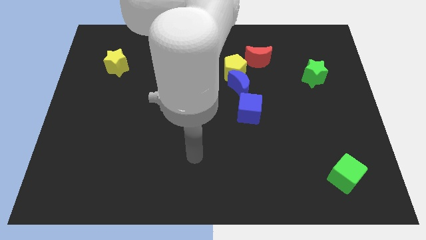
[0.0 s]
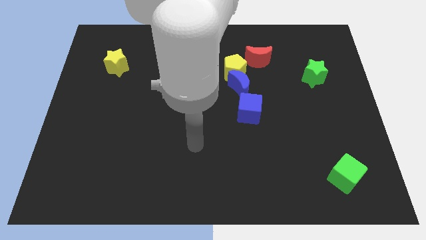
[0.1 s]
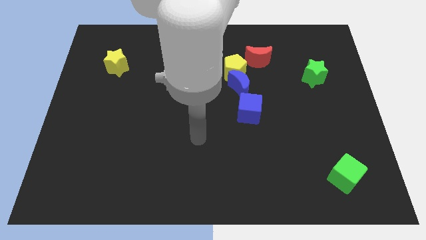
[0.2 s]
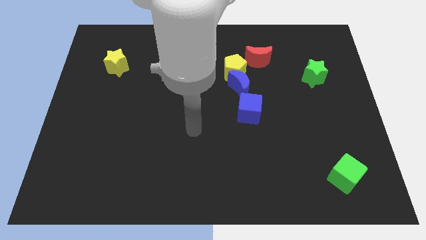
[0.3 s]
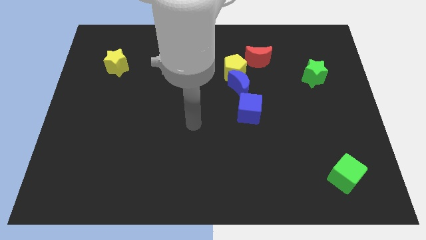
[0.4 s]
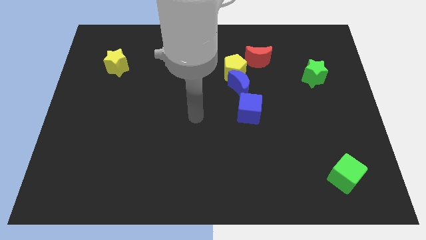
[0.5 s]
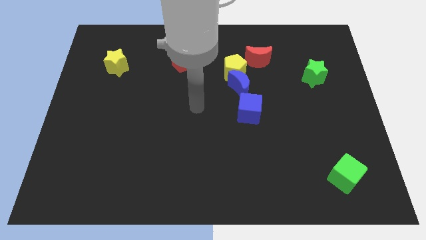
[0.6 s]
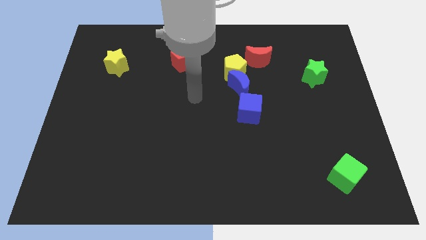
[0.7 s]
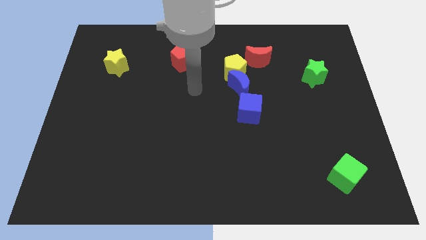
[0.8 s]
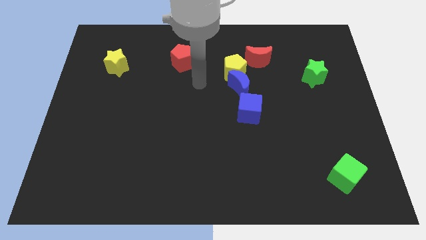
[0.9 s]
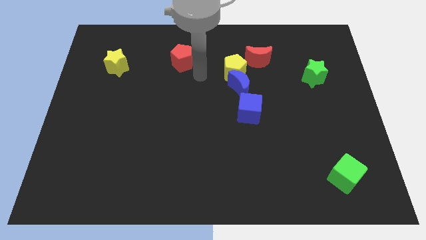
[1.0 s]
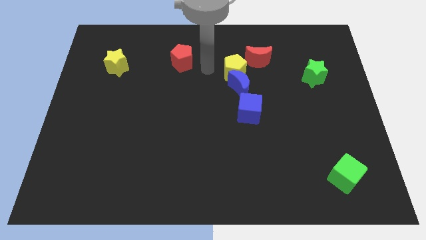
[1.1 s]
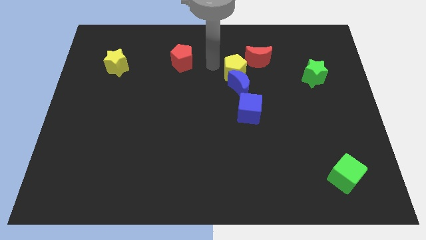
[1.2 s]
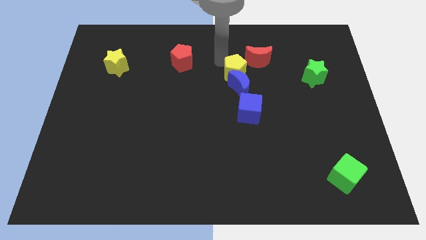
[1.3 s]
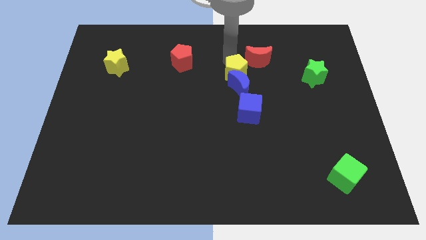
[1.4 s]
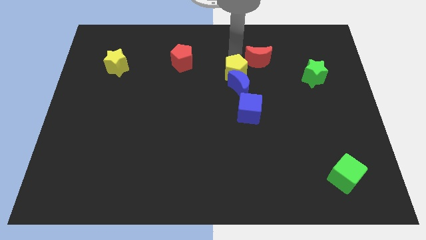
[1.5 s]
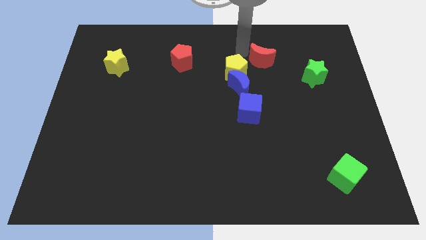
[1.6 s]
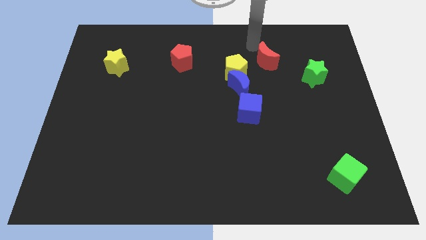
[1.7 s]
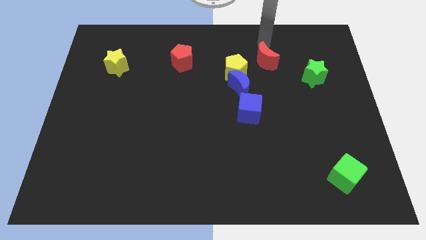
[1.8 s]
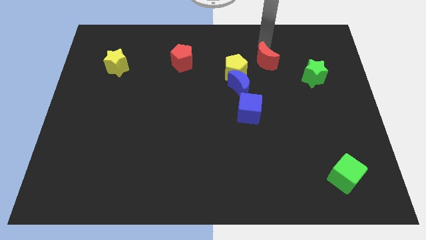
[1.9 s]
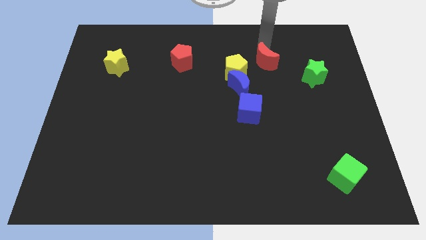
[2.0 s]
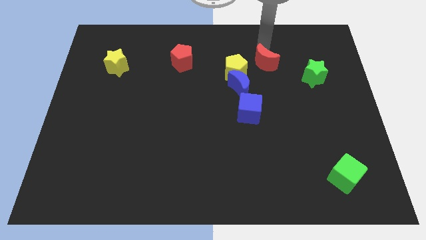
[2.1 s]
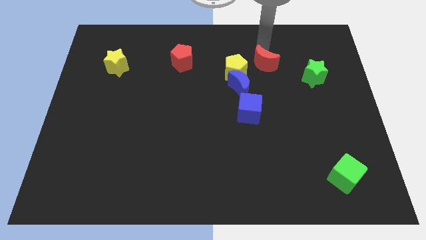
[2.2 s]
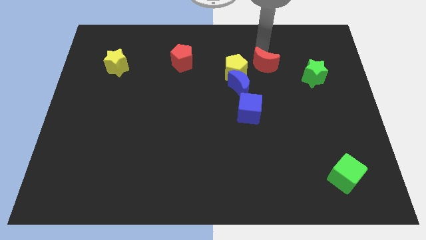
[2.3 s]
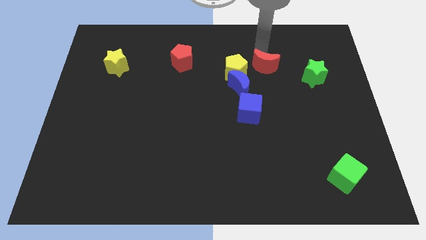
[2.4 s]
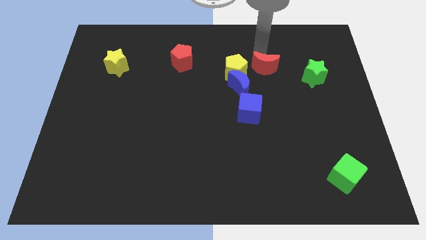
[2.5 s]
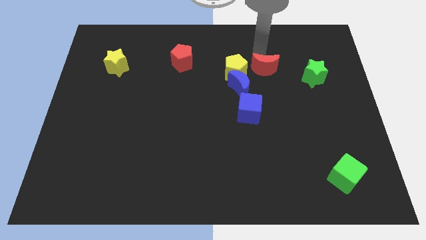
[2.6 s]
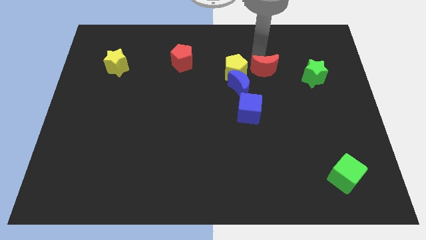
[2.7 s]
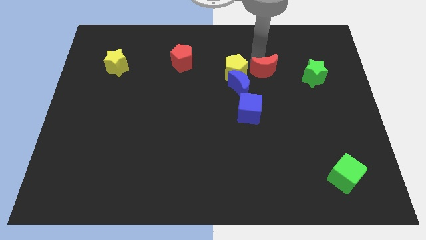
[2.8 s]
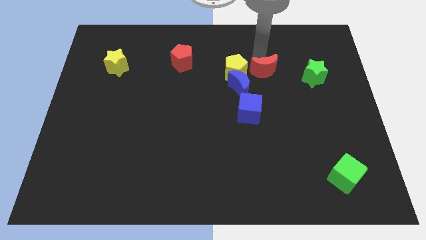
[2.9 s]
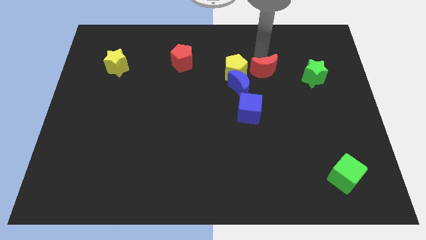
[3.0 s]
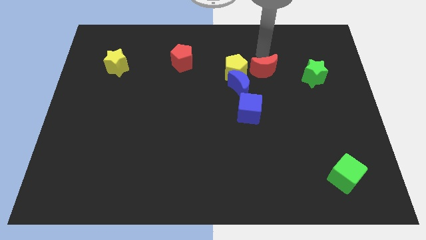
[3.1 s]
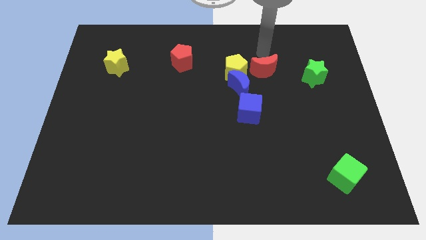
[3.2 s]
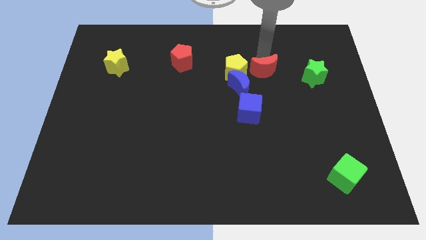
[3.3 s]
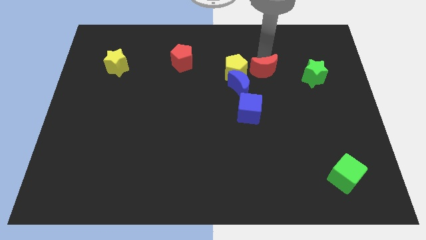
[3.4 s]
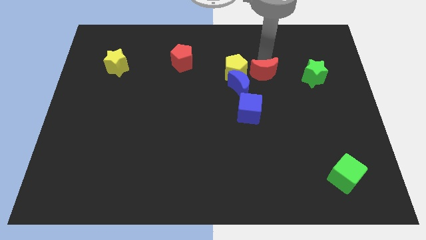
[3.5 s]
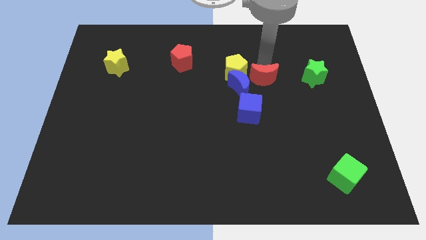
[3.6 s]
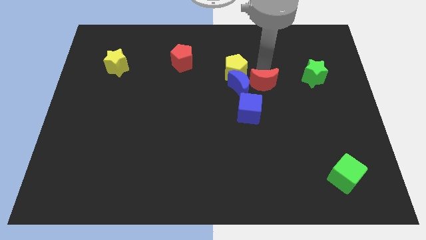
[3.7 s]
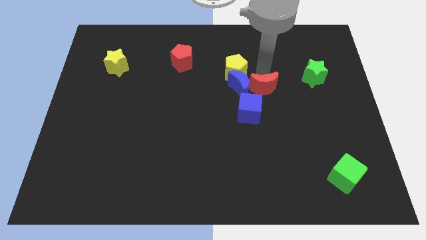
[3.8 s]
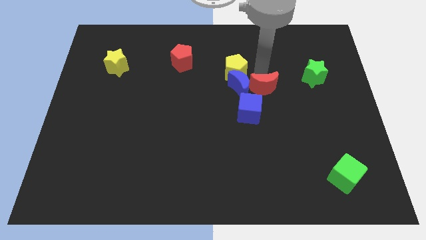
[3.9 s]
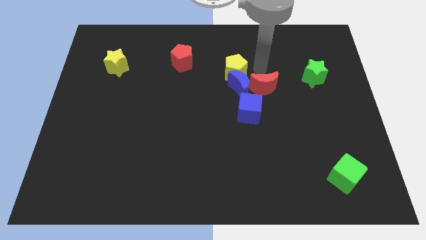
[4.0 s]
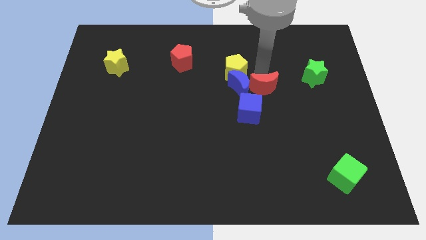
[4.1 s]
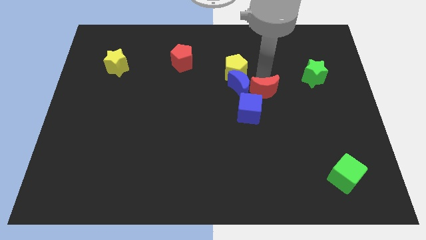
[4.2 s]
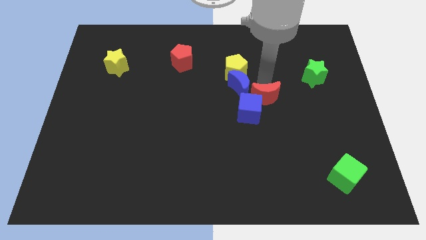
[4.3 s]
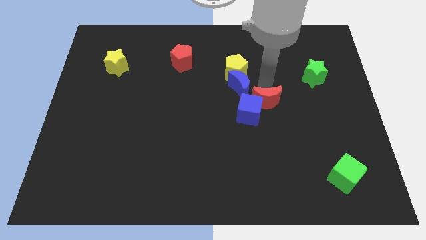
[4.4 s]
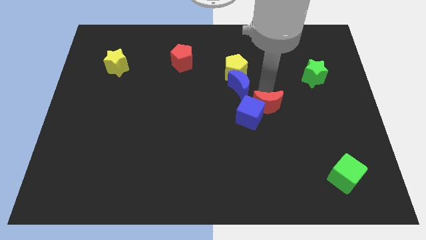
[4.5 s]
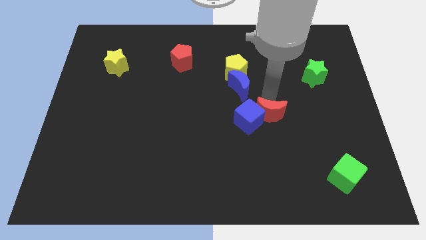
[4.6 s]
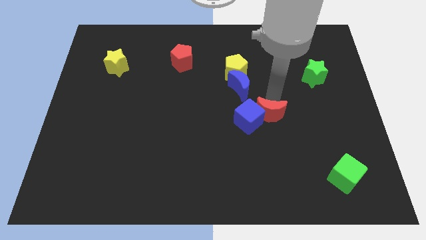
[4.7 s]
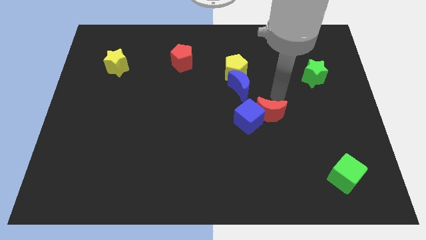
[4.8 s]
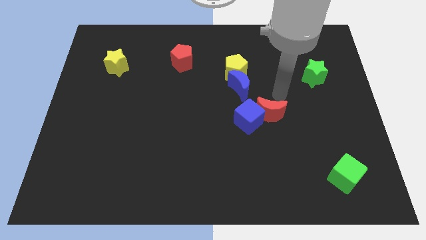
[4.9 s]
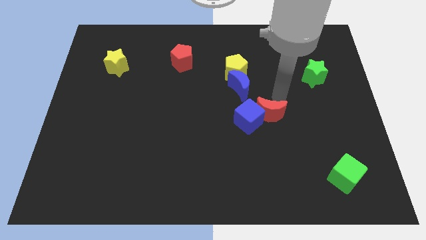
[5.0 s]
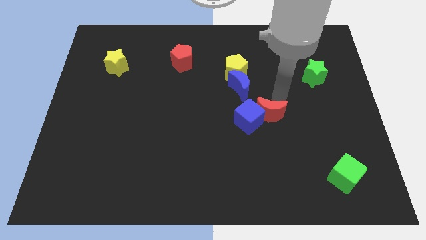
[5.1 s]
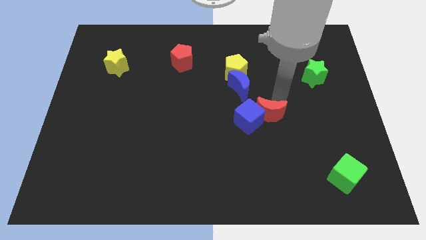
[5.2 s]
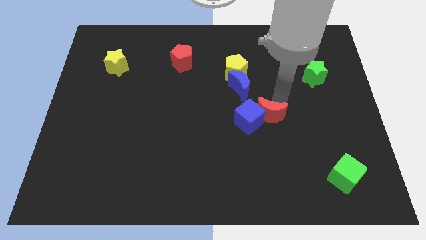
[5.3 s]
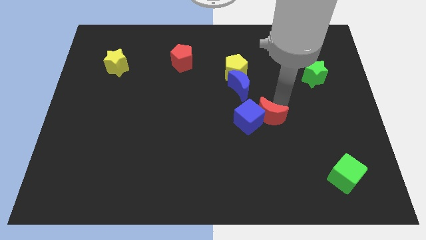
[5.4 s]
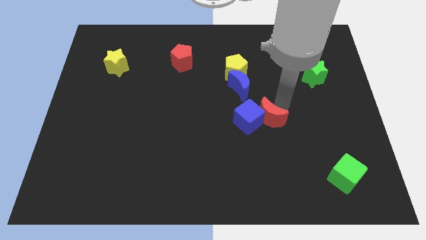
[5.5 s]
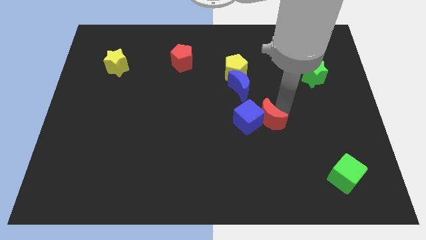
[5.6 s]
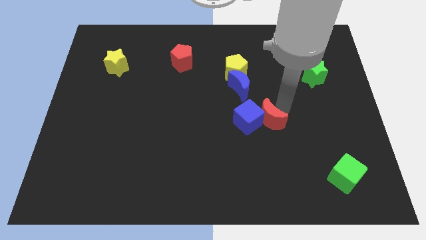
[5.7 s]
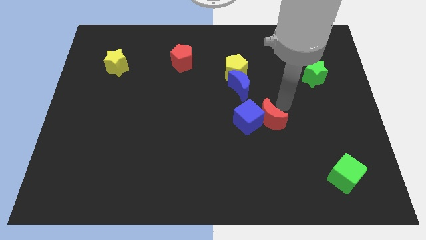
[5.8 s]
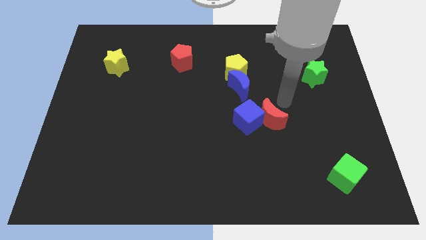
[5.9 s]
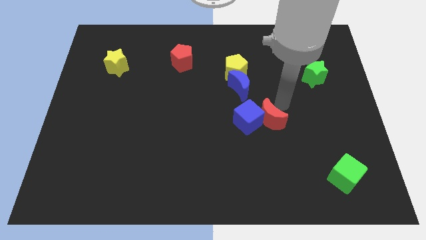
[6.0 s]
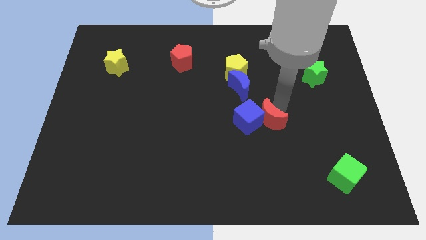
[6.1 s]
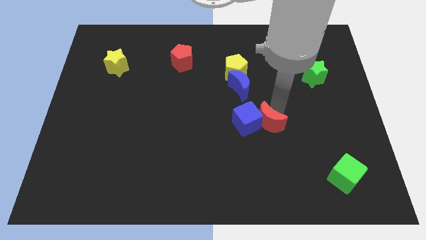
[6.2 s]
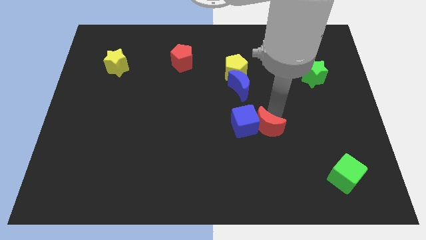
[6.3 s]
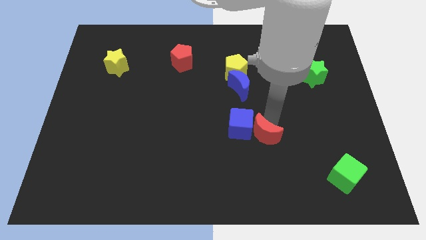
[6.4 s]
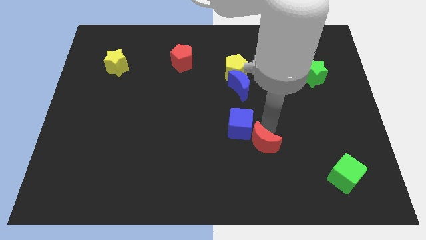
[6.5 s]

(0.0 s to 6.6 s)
put the red moon to the bottom of the blue cube

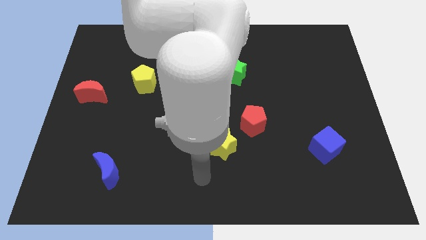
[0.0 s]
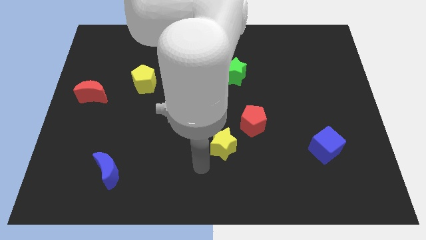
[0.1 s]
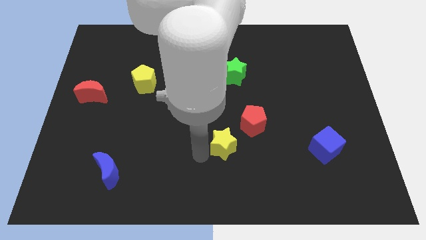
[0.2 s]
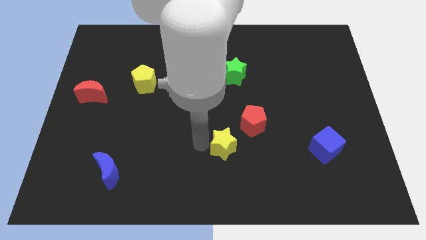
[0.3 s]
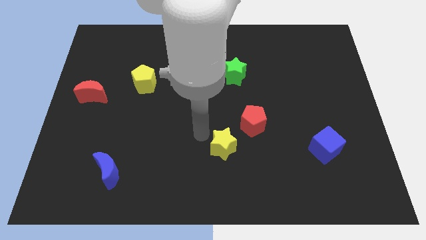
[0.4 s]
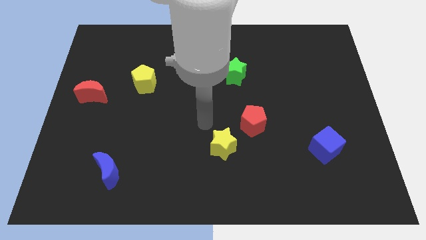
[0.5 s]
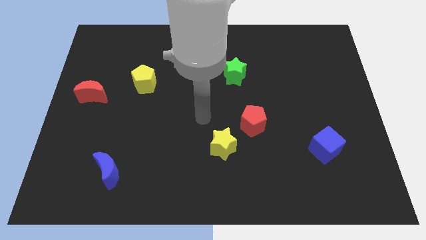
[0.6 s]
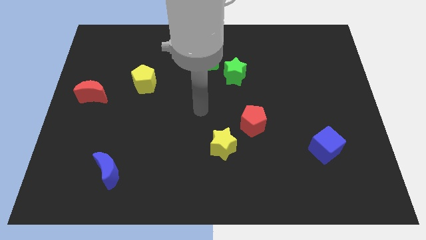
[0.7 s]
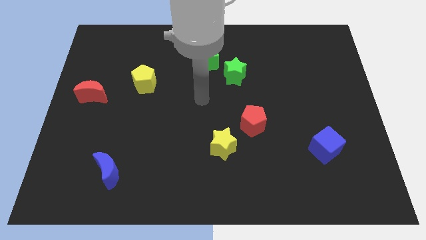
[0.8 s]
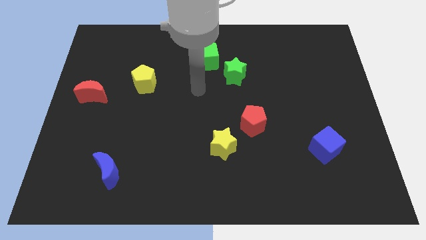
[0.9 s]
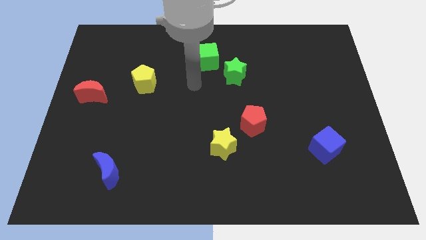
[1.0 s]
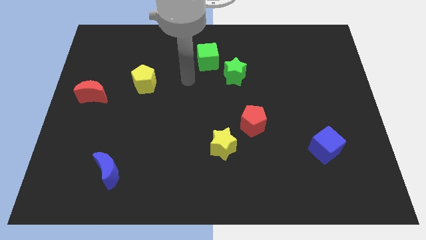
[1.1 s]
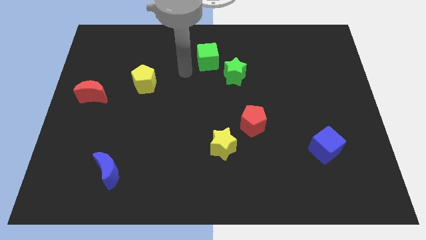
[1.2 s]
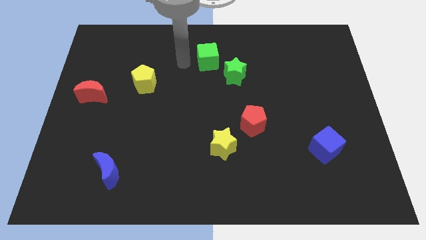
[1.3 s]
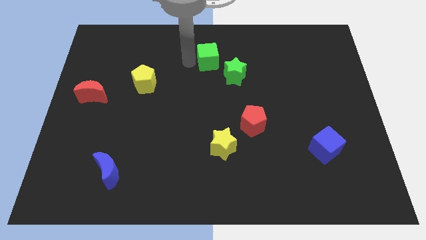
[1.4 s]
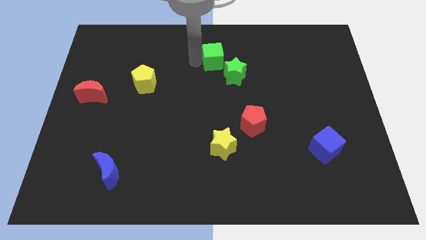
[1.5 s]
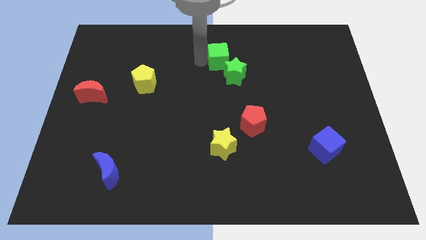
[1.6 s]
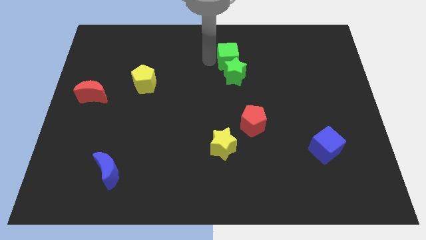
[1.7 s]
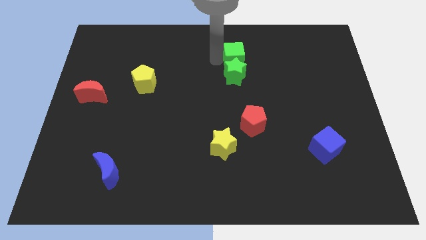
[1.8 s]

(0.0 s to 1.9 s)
put the green cube to the top right side of the green star
